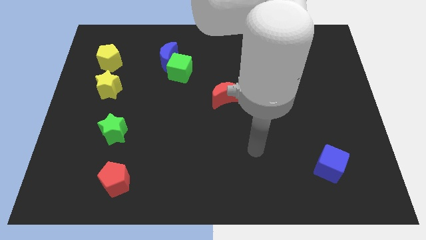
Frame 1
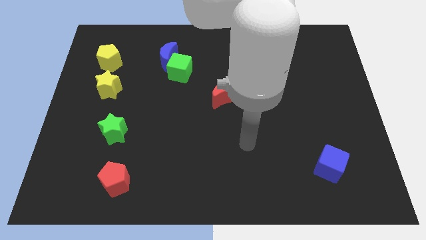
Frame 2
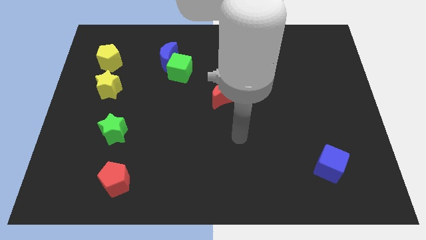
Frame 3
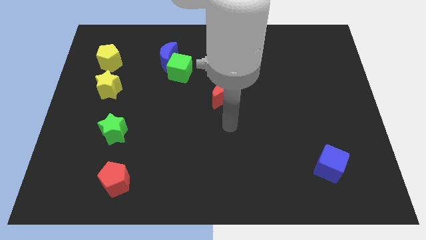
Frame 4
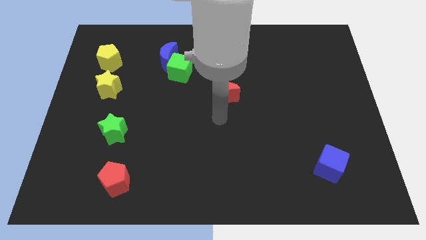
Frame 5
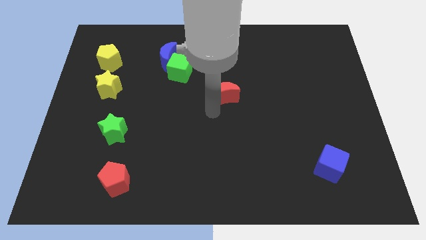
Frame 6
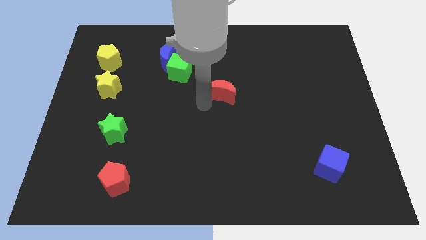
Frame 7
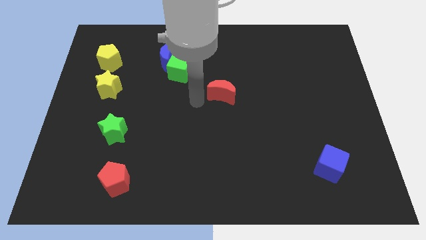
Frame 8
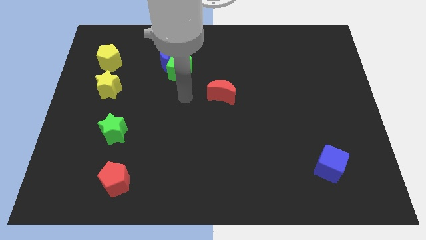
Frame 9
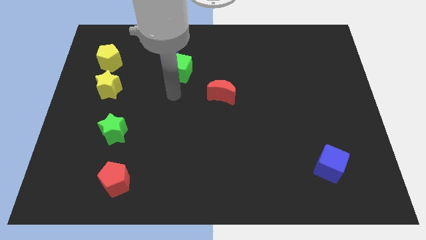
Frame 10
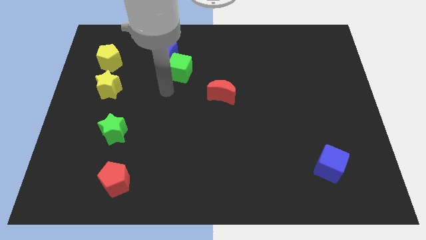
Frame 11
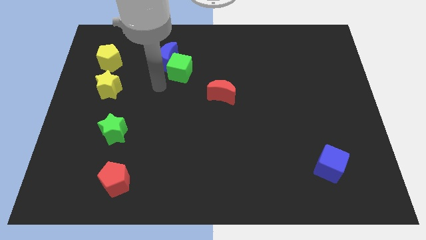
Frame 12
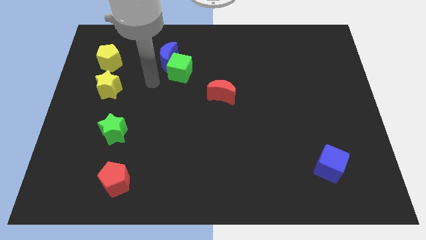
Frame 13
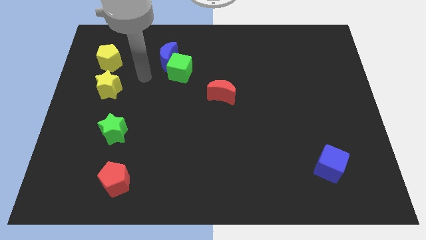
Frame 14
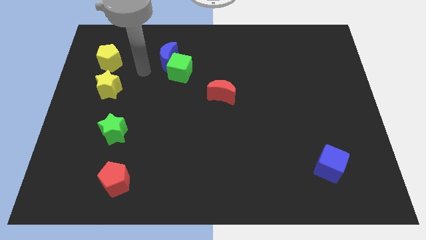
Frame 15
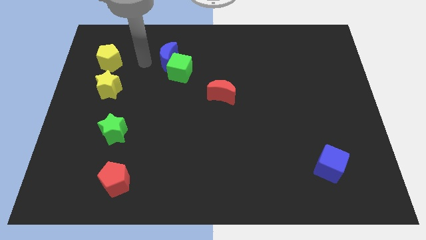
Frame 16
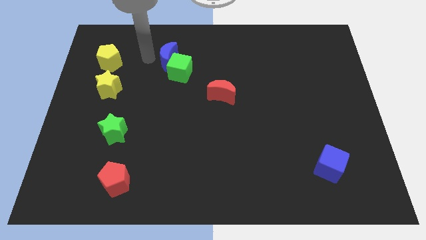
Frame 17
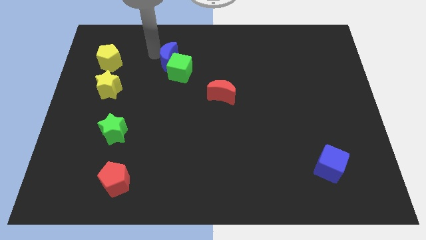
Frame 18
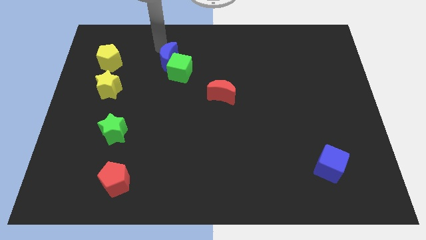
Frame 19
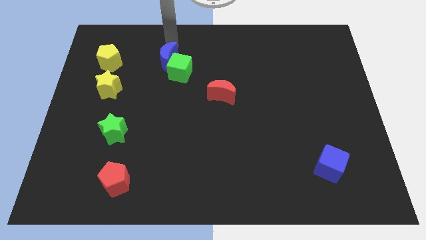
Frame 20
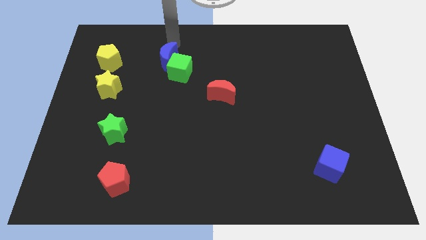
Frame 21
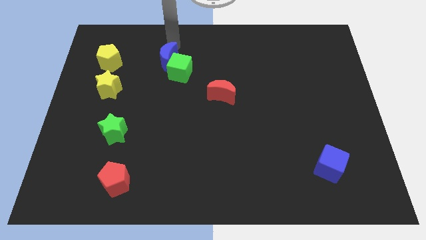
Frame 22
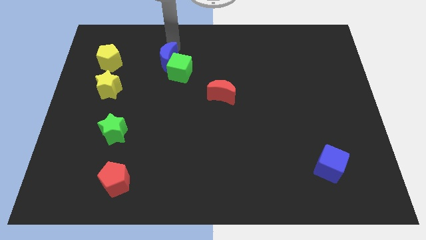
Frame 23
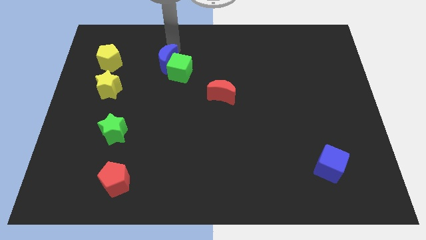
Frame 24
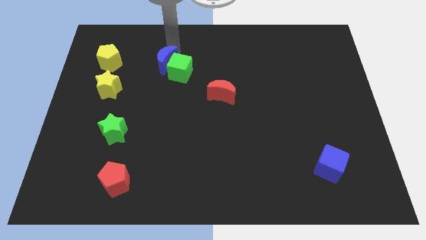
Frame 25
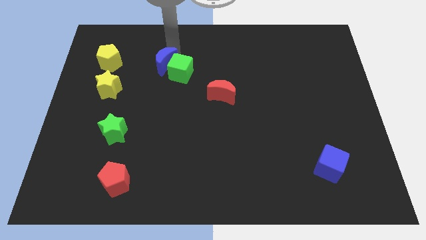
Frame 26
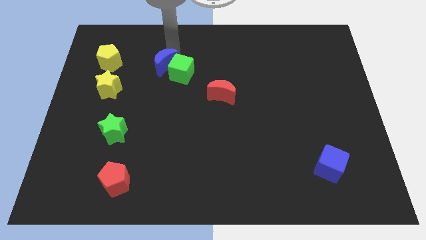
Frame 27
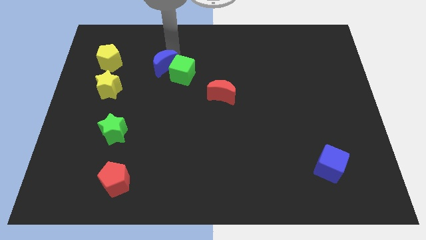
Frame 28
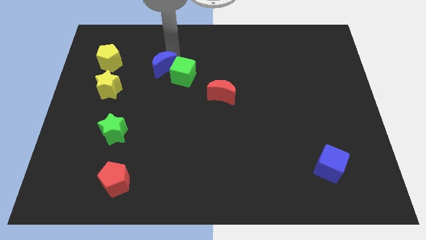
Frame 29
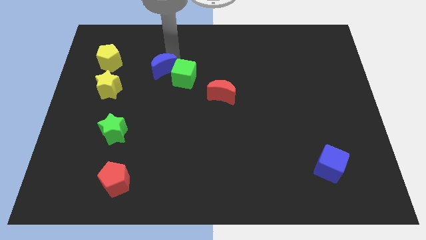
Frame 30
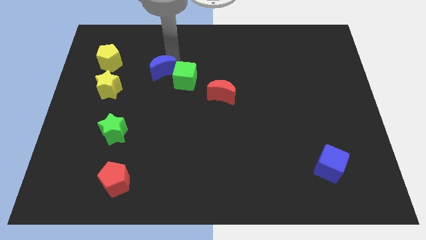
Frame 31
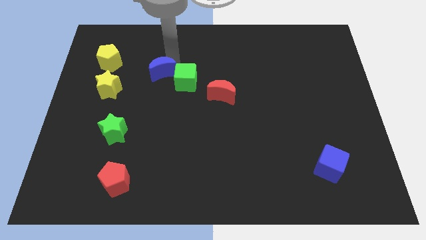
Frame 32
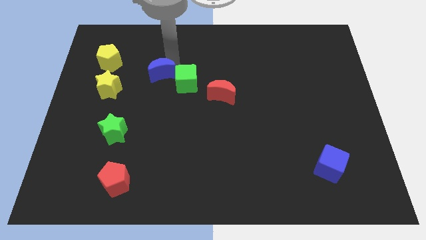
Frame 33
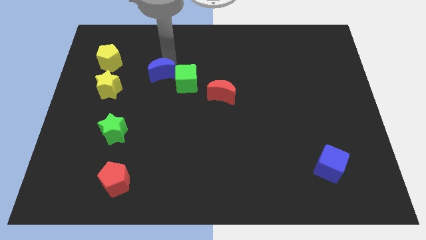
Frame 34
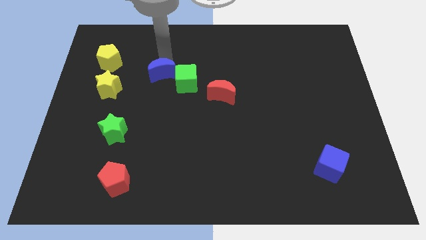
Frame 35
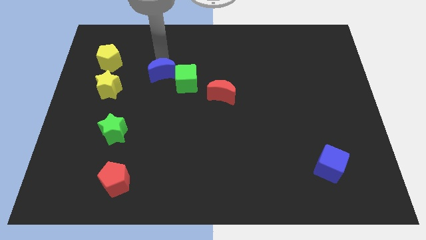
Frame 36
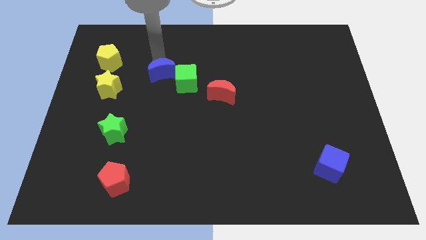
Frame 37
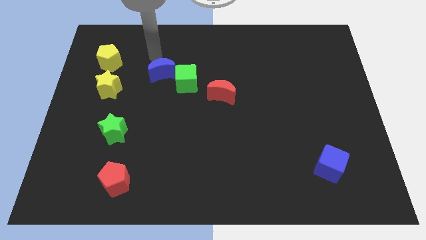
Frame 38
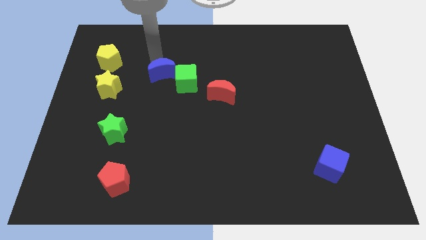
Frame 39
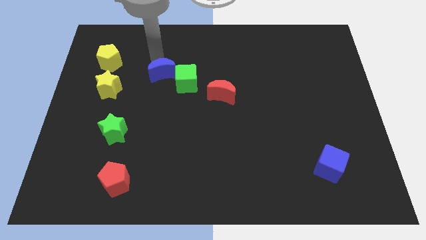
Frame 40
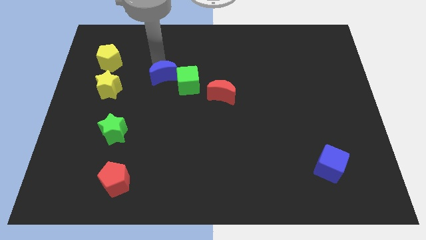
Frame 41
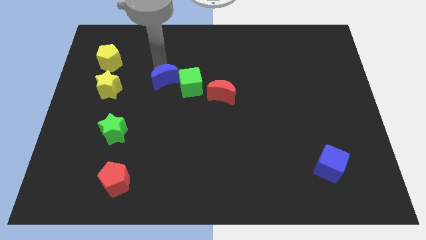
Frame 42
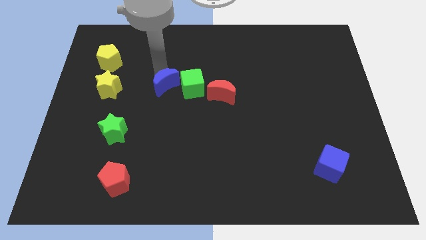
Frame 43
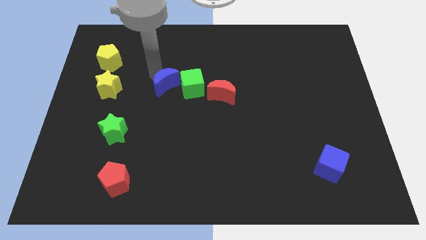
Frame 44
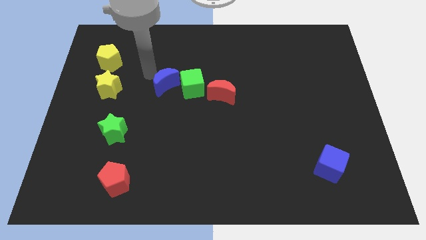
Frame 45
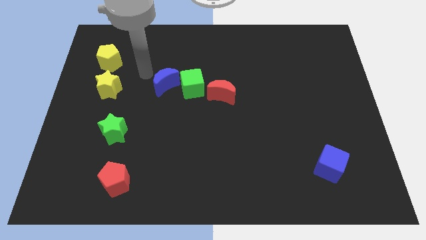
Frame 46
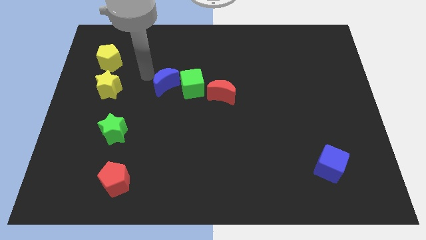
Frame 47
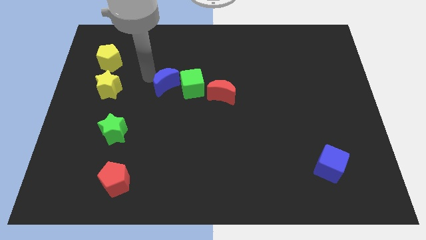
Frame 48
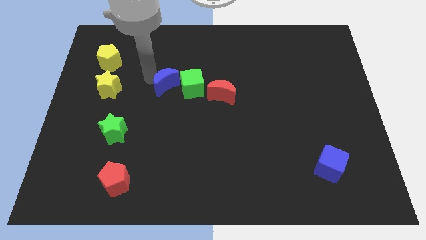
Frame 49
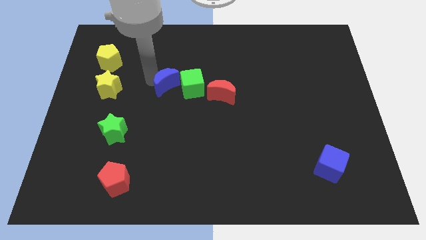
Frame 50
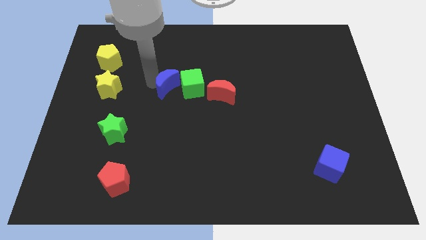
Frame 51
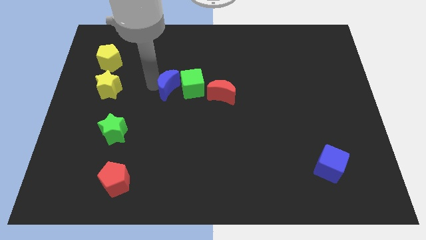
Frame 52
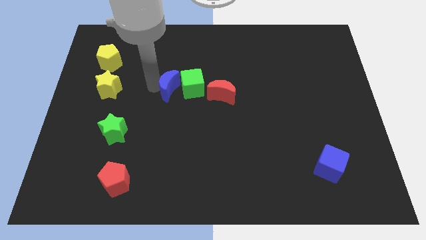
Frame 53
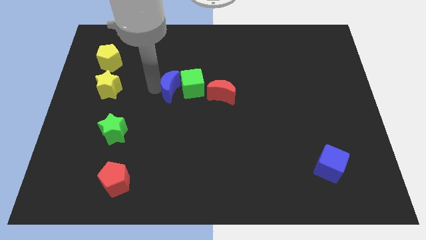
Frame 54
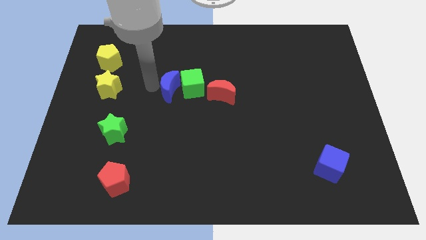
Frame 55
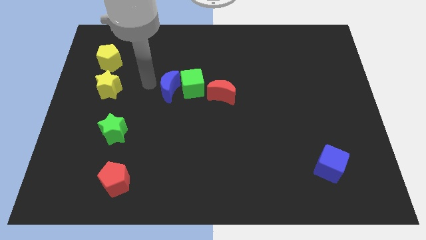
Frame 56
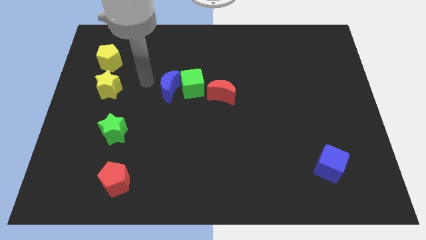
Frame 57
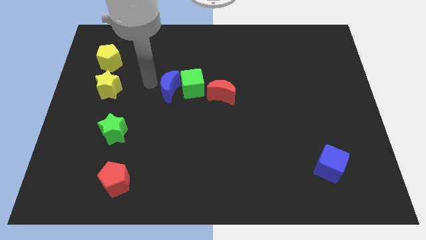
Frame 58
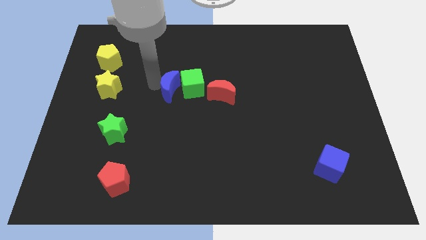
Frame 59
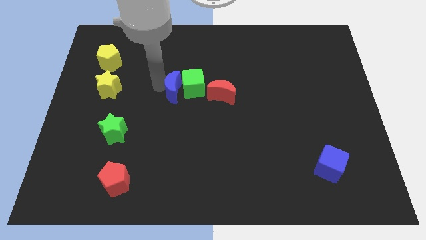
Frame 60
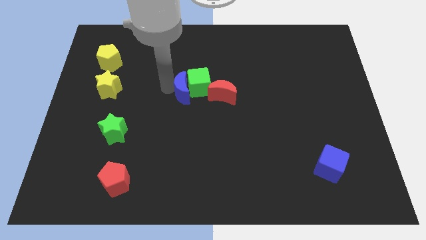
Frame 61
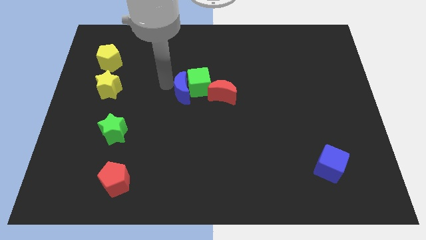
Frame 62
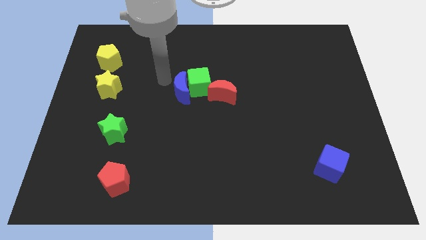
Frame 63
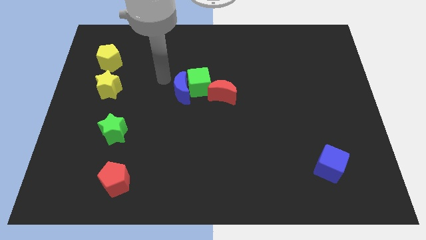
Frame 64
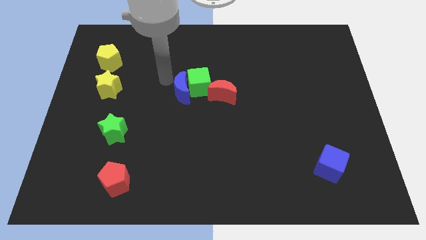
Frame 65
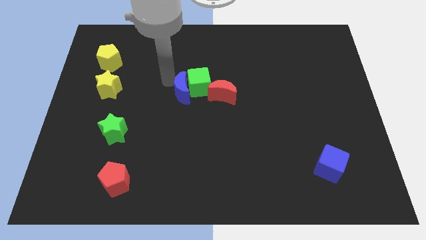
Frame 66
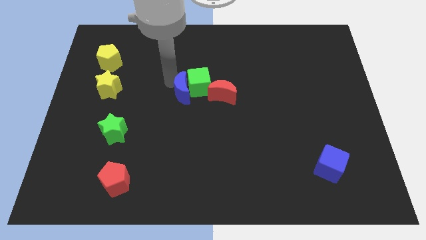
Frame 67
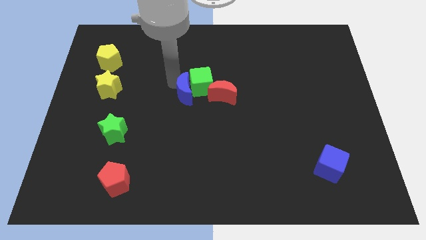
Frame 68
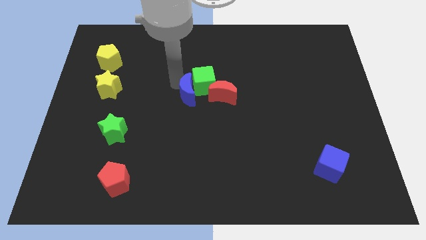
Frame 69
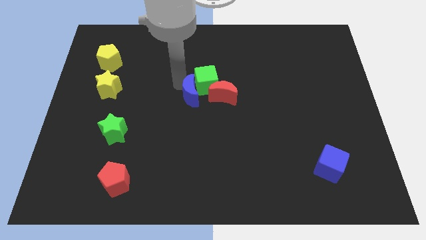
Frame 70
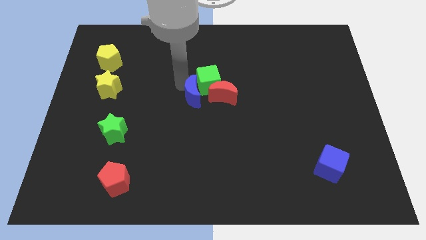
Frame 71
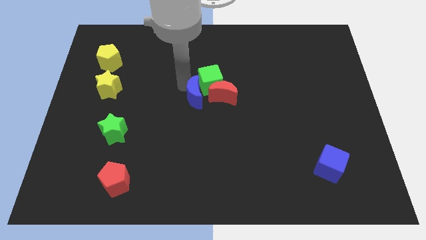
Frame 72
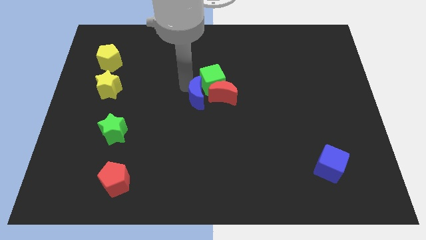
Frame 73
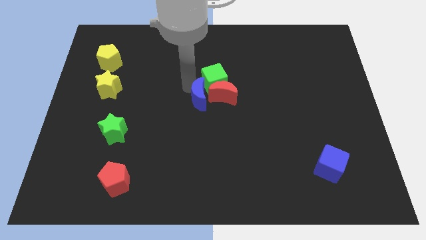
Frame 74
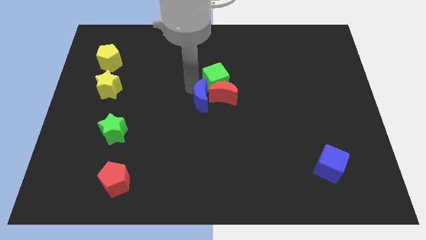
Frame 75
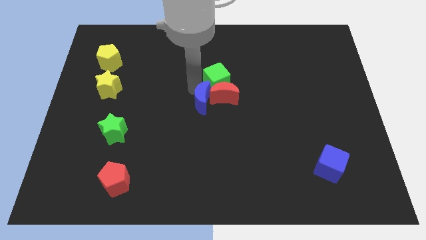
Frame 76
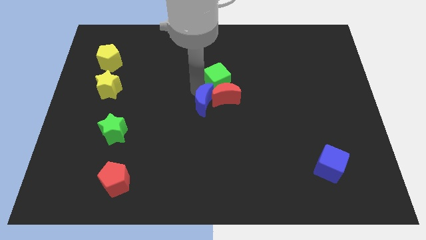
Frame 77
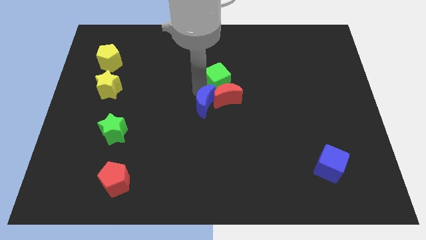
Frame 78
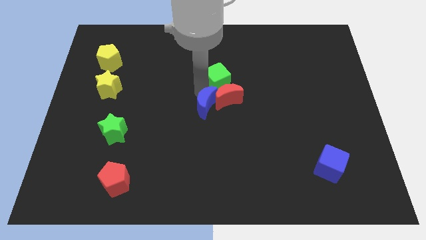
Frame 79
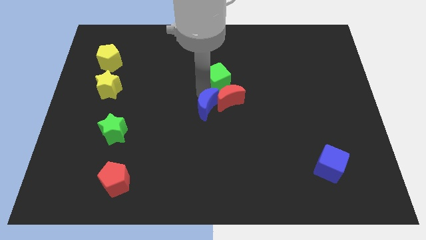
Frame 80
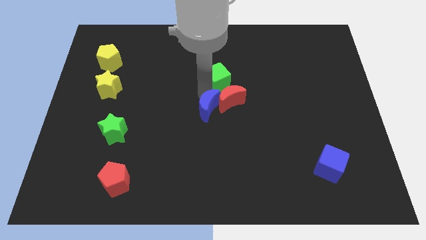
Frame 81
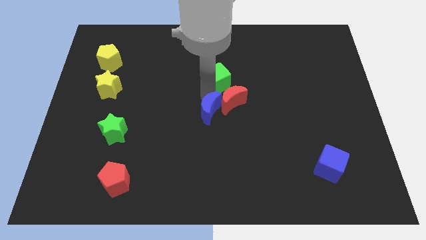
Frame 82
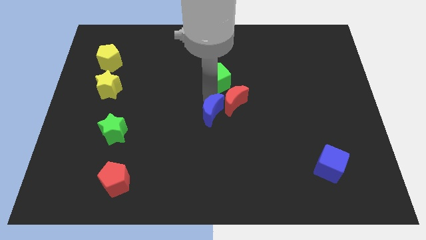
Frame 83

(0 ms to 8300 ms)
move the blue moon diagonally down and right

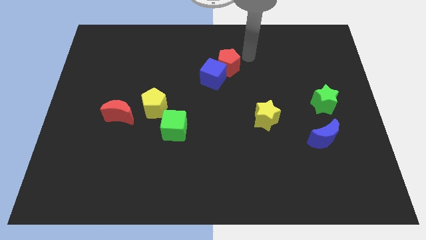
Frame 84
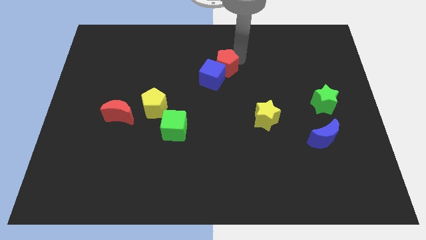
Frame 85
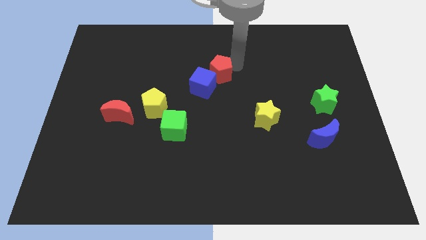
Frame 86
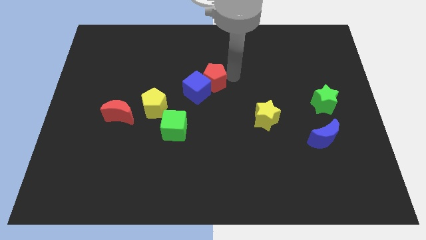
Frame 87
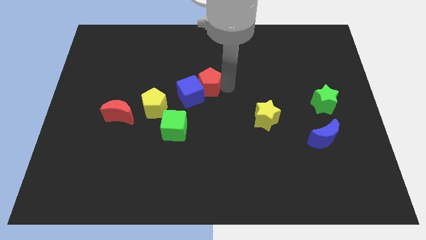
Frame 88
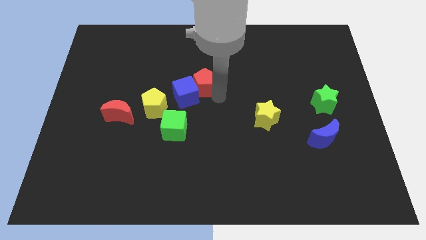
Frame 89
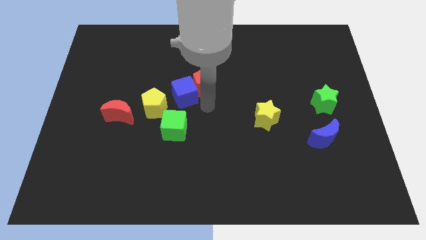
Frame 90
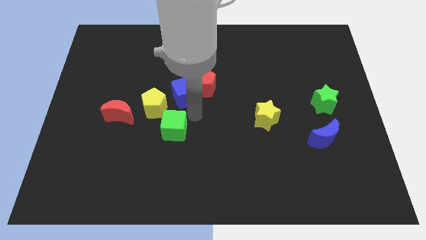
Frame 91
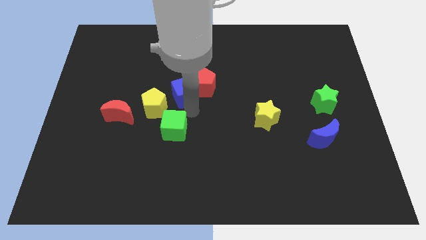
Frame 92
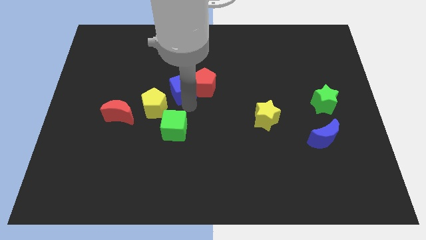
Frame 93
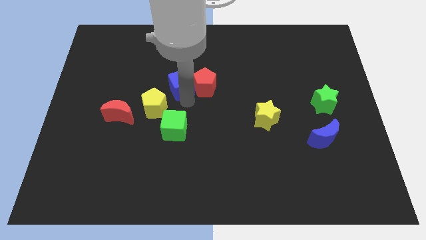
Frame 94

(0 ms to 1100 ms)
push the blue cube to the left somewhat
